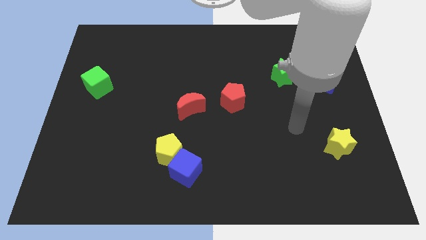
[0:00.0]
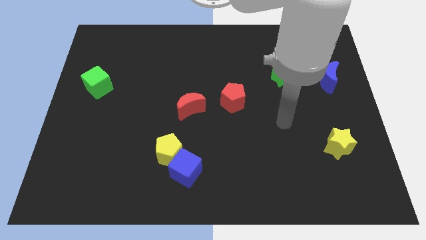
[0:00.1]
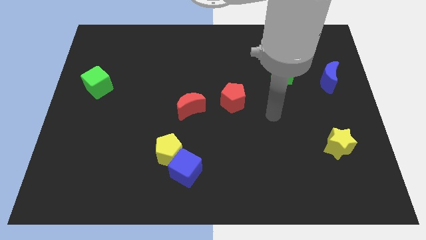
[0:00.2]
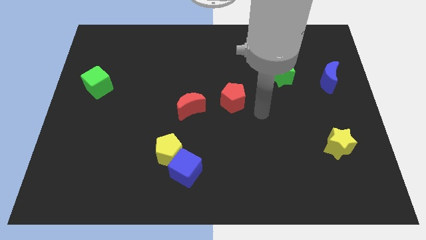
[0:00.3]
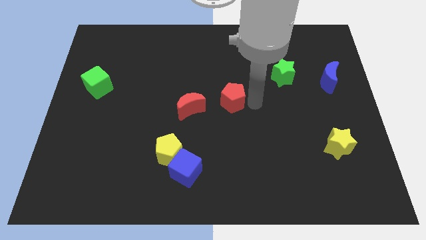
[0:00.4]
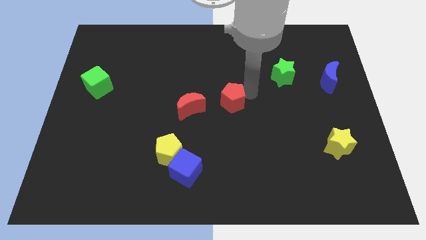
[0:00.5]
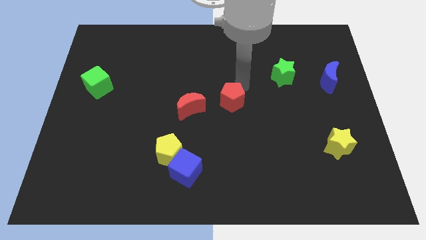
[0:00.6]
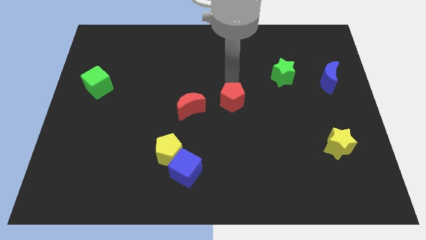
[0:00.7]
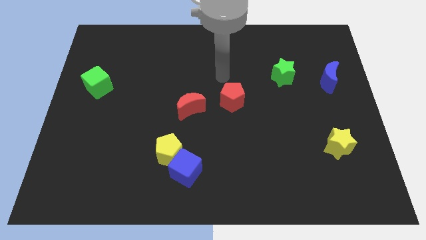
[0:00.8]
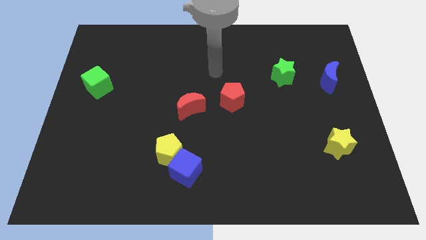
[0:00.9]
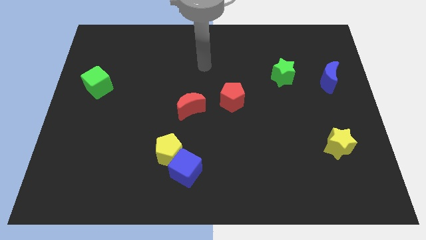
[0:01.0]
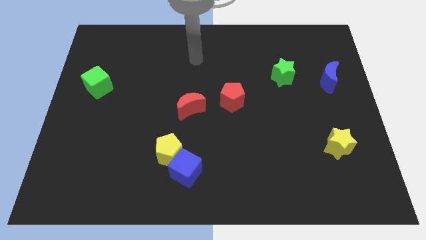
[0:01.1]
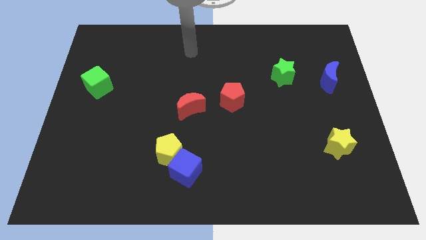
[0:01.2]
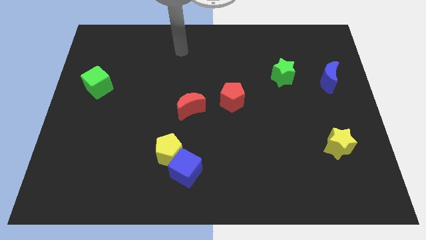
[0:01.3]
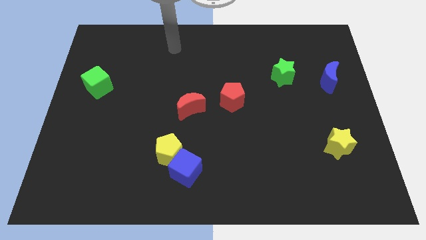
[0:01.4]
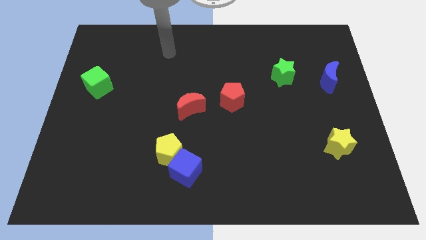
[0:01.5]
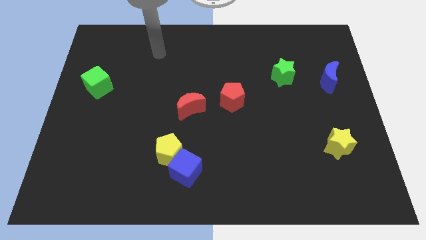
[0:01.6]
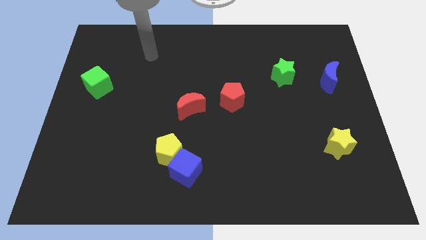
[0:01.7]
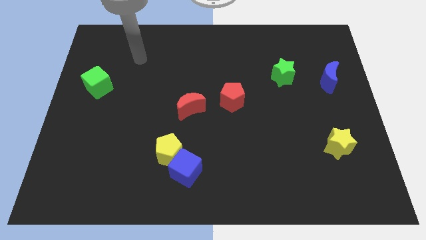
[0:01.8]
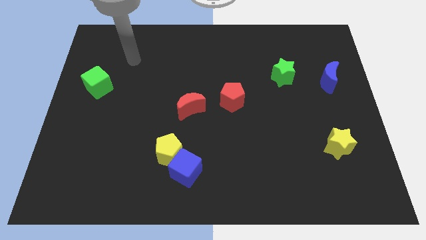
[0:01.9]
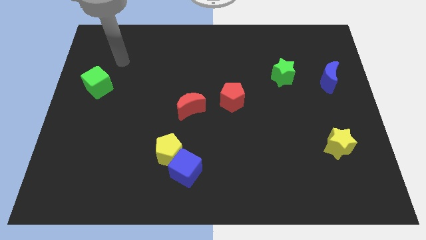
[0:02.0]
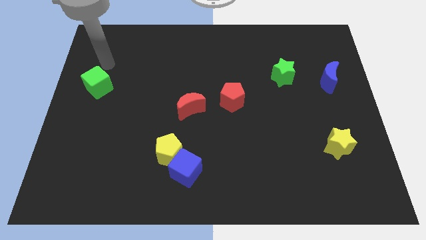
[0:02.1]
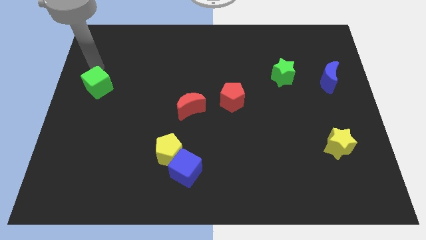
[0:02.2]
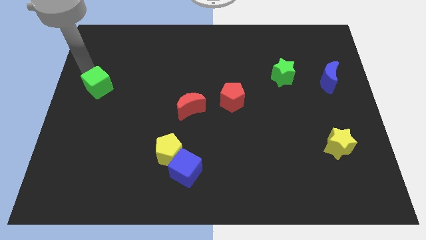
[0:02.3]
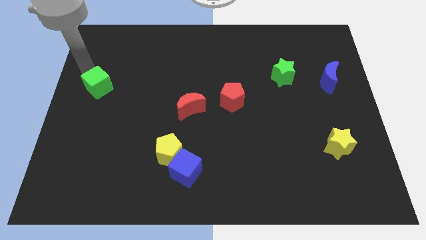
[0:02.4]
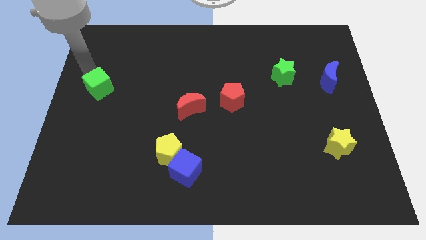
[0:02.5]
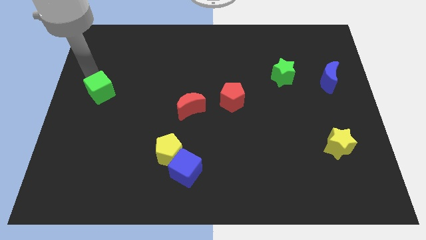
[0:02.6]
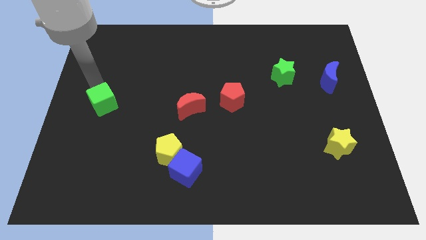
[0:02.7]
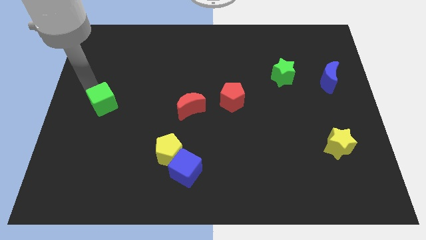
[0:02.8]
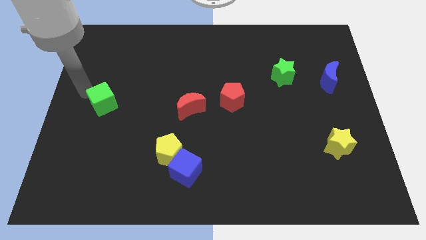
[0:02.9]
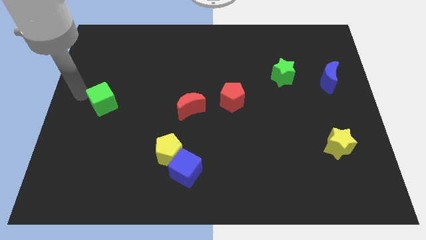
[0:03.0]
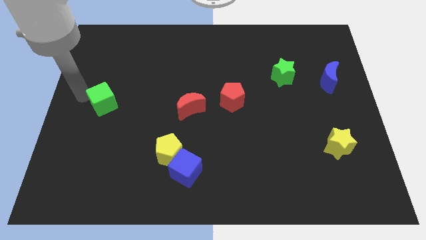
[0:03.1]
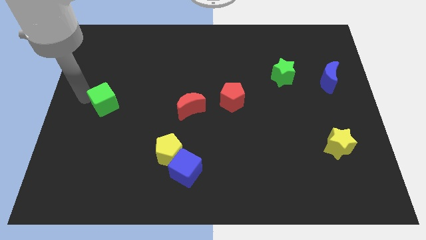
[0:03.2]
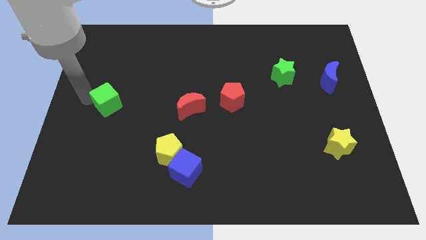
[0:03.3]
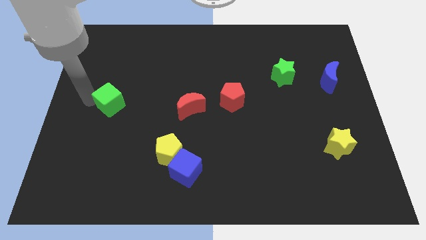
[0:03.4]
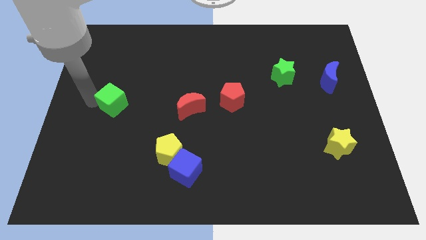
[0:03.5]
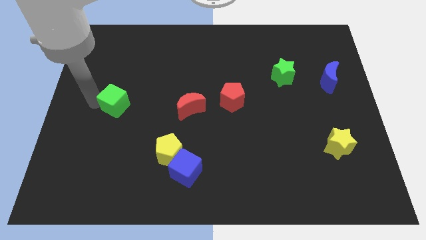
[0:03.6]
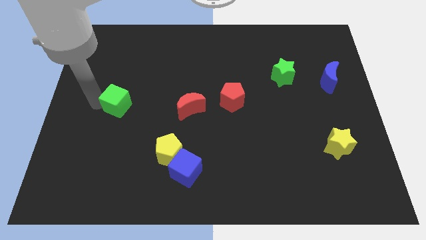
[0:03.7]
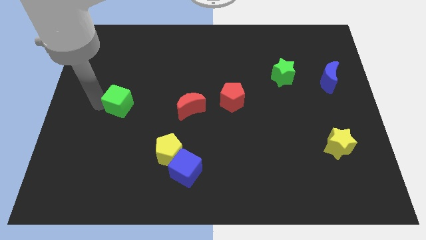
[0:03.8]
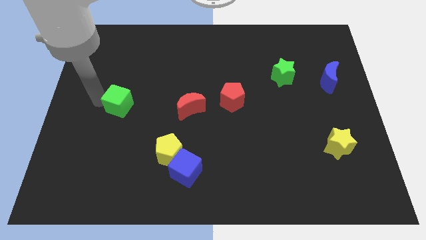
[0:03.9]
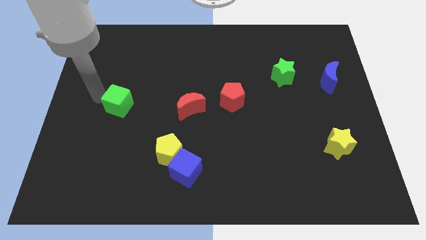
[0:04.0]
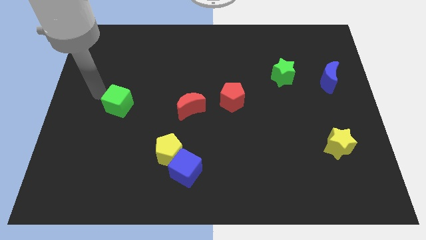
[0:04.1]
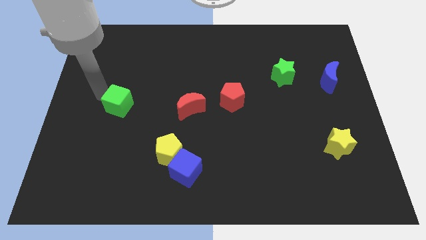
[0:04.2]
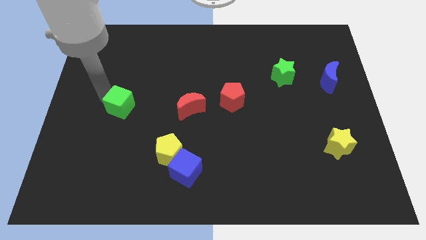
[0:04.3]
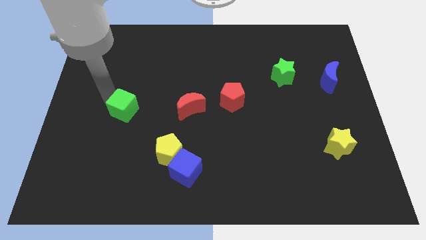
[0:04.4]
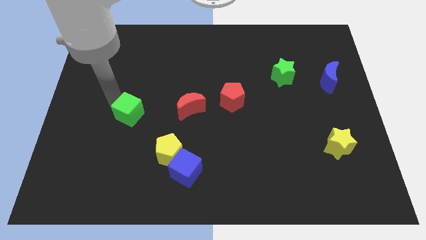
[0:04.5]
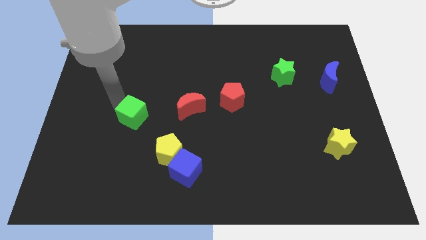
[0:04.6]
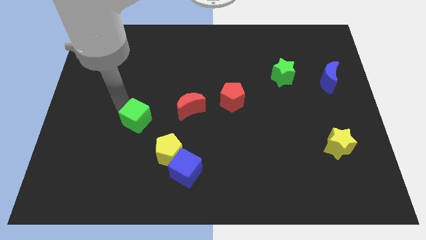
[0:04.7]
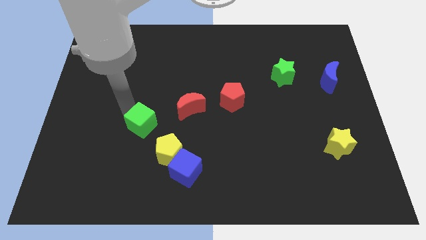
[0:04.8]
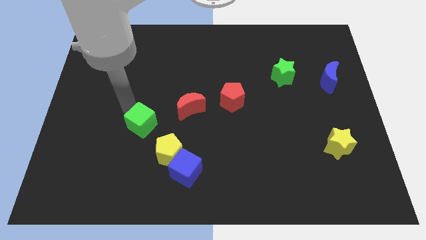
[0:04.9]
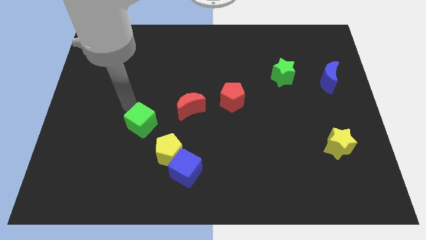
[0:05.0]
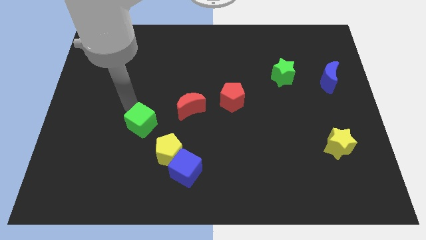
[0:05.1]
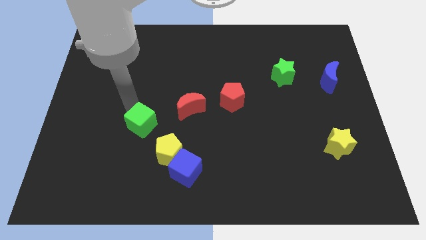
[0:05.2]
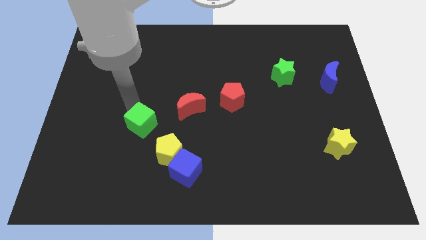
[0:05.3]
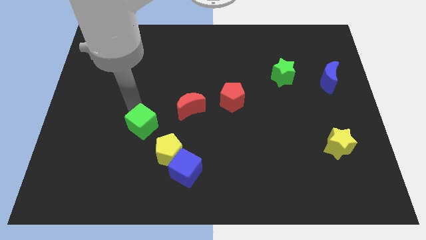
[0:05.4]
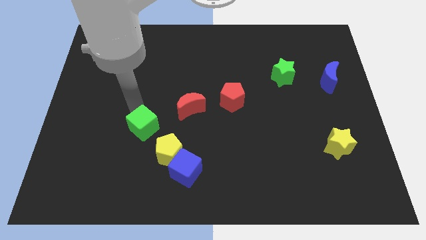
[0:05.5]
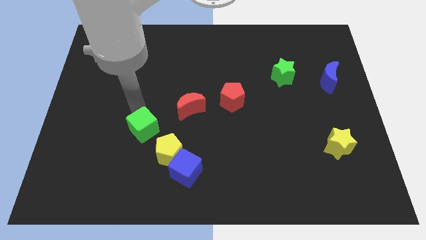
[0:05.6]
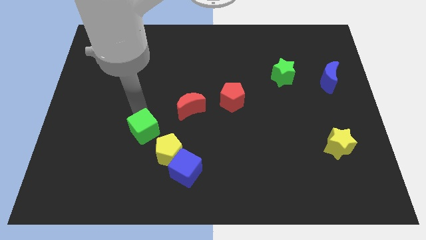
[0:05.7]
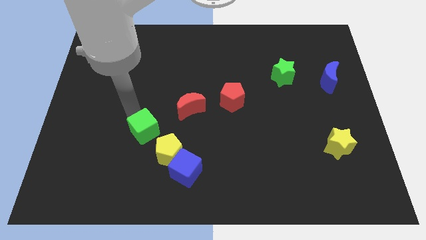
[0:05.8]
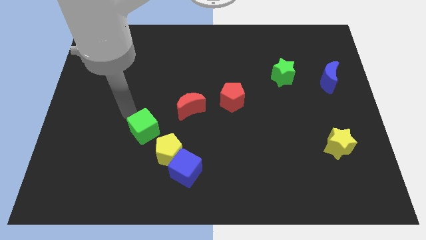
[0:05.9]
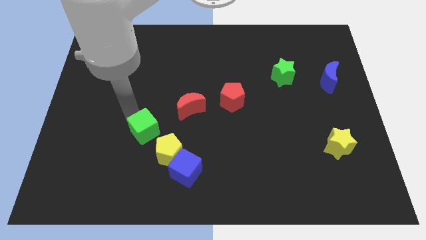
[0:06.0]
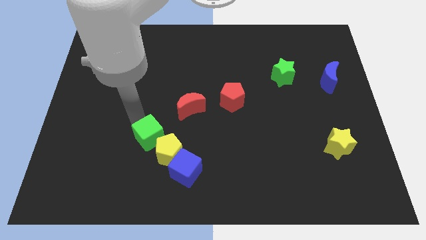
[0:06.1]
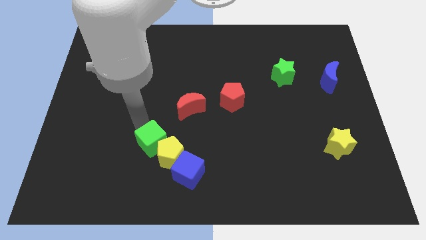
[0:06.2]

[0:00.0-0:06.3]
move the green cube to the yellow pentagon

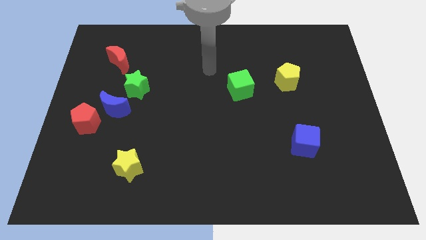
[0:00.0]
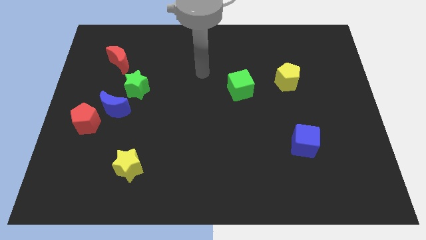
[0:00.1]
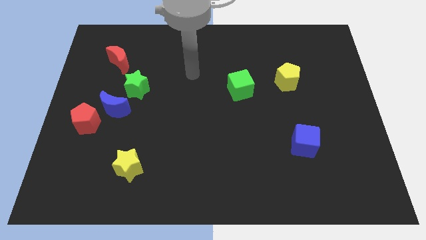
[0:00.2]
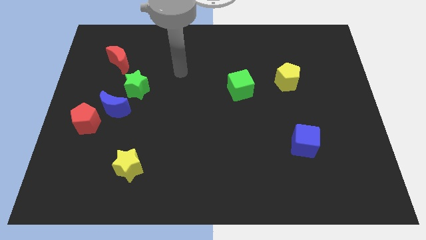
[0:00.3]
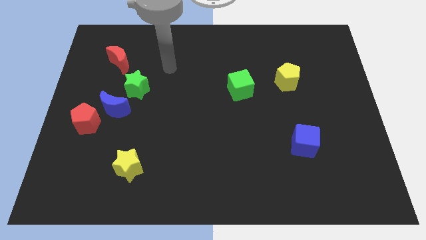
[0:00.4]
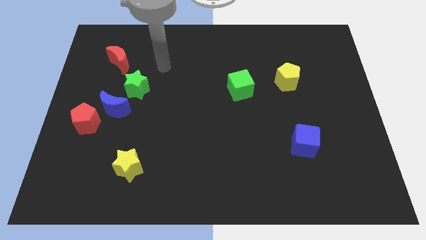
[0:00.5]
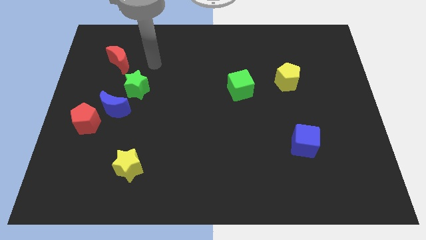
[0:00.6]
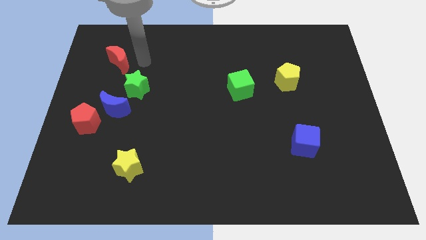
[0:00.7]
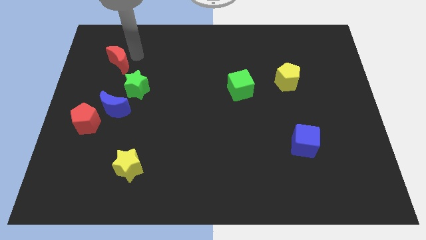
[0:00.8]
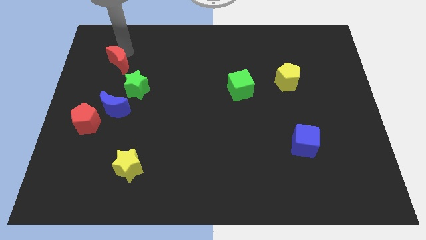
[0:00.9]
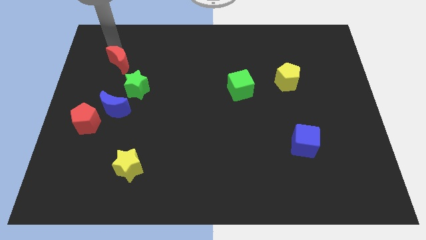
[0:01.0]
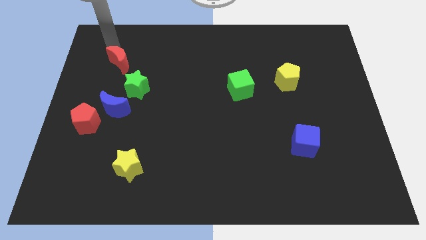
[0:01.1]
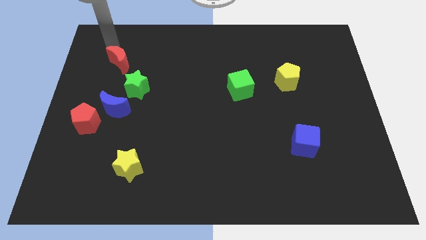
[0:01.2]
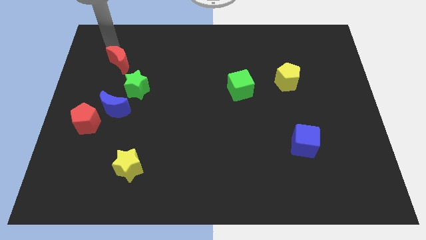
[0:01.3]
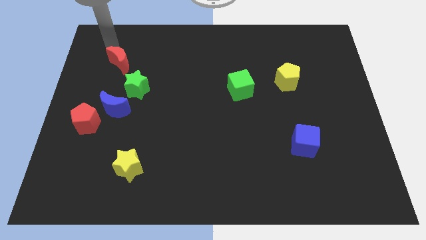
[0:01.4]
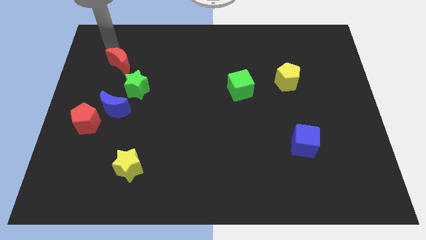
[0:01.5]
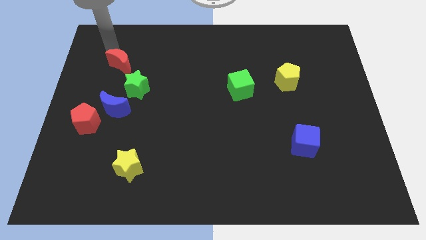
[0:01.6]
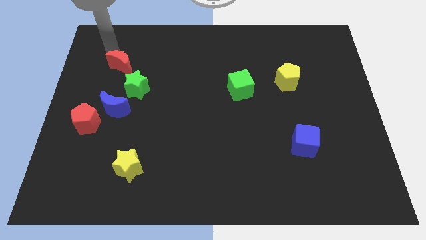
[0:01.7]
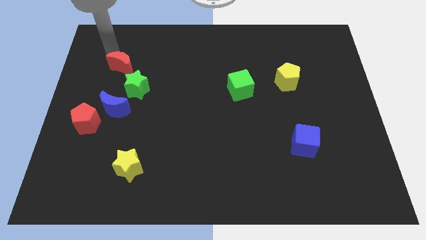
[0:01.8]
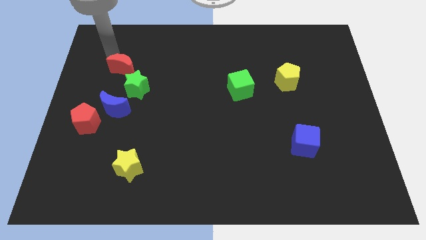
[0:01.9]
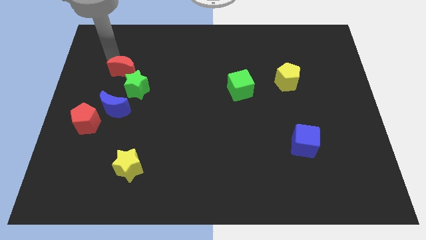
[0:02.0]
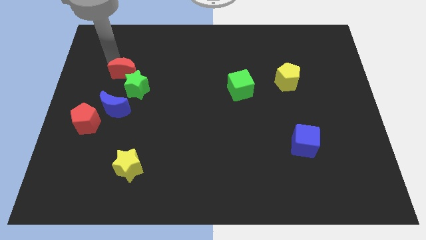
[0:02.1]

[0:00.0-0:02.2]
push the red moon close to the green star

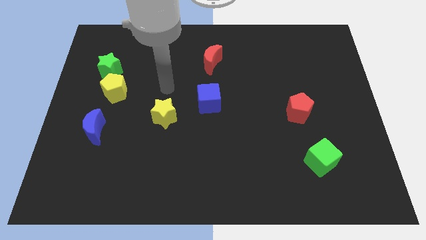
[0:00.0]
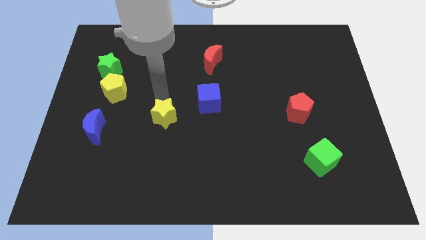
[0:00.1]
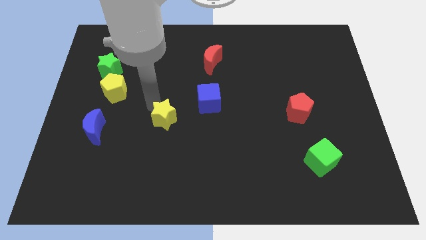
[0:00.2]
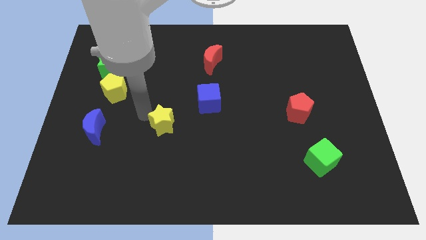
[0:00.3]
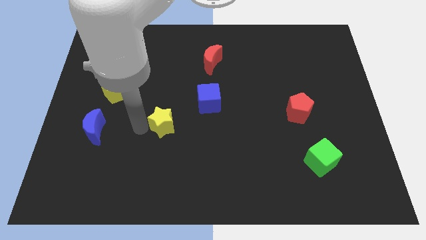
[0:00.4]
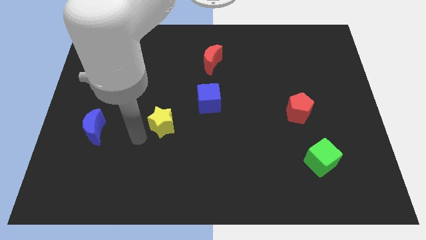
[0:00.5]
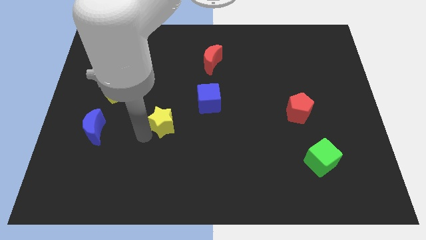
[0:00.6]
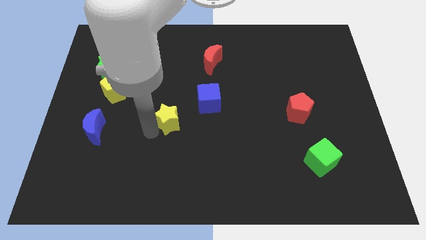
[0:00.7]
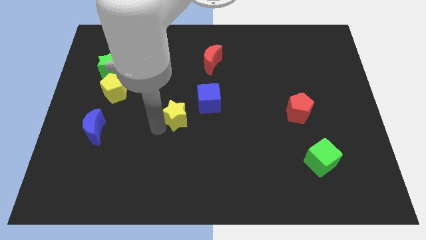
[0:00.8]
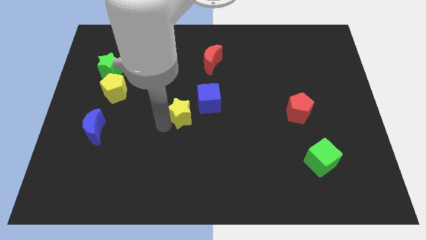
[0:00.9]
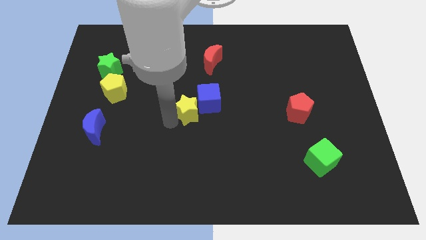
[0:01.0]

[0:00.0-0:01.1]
slide the yellow star next to the blue cube
